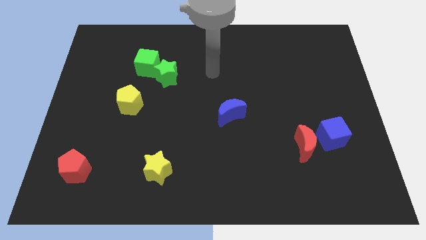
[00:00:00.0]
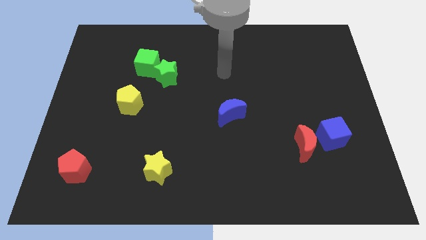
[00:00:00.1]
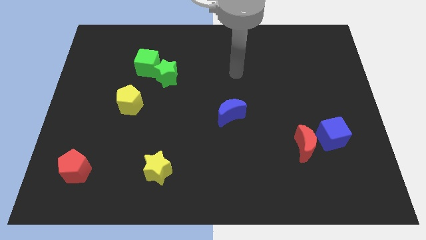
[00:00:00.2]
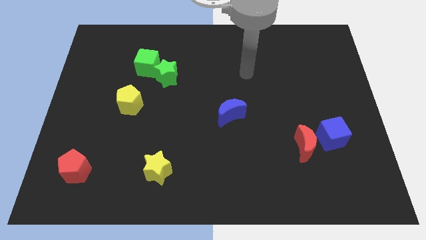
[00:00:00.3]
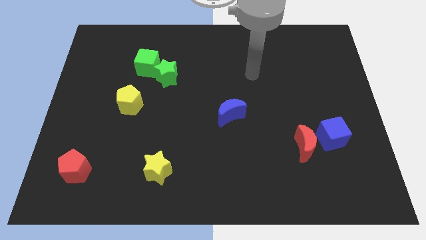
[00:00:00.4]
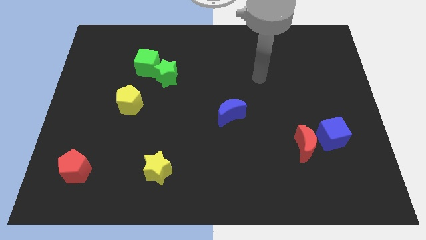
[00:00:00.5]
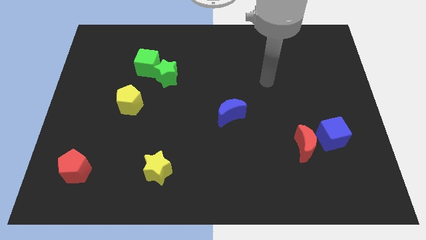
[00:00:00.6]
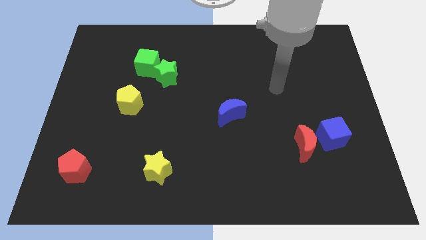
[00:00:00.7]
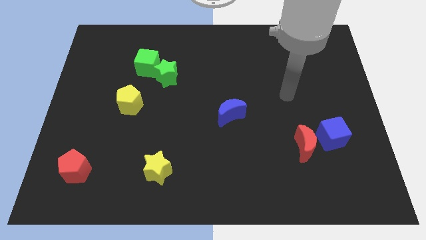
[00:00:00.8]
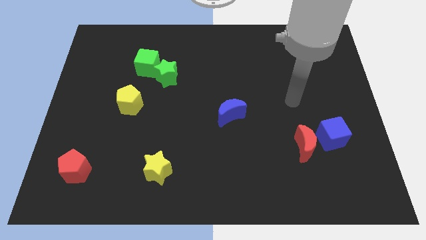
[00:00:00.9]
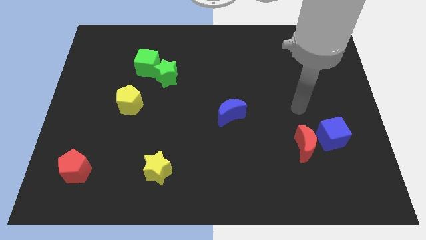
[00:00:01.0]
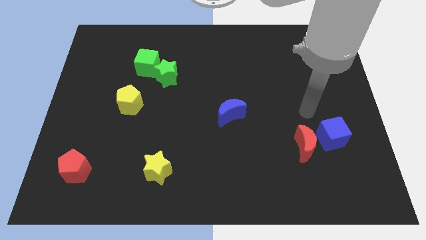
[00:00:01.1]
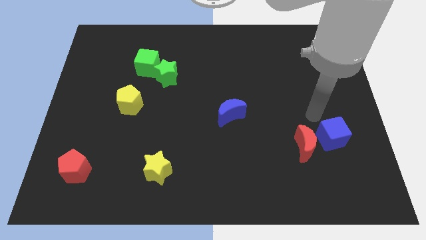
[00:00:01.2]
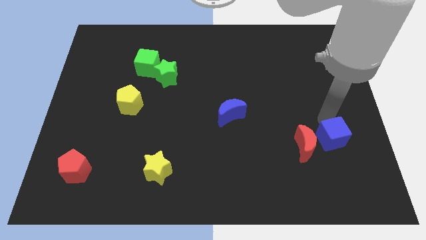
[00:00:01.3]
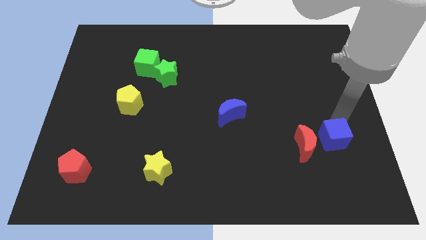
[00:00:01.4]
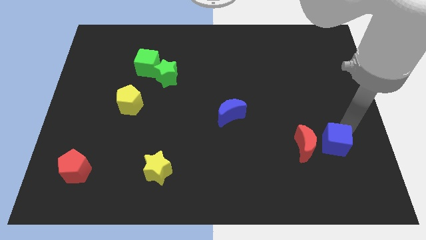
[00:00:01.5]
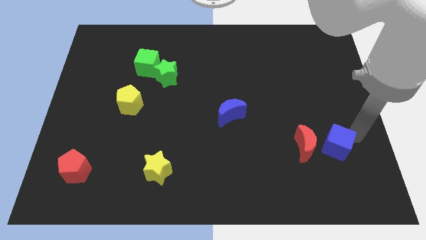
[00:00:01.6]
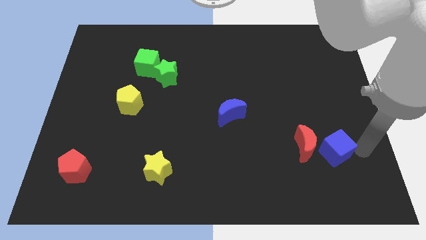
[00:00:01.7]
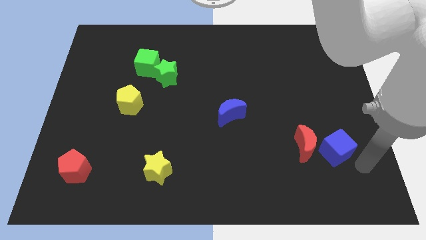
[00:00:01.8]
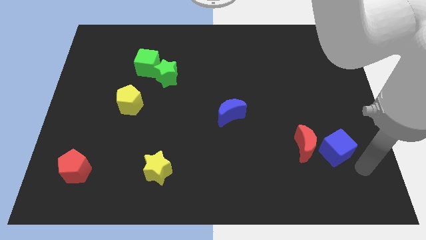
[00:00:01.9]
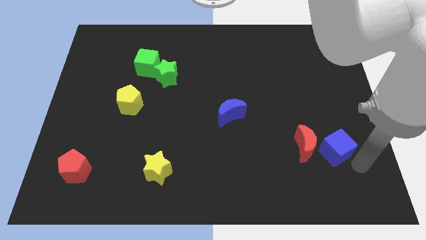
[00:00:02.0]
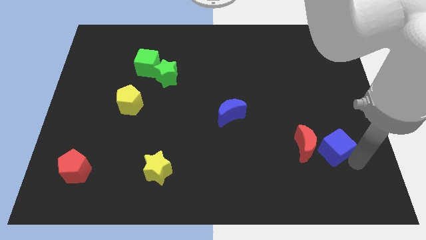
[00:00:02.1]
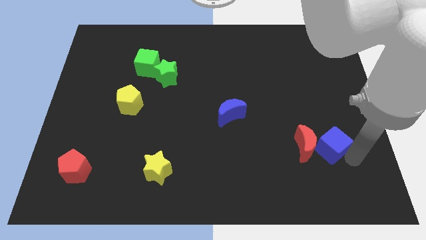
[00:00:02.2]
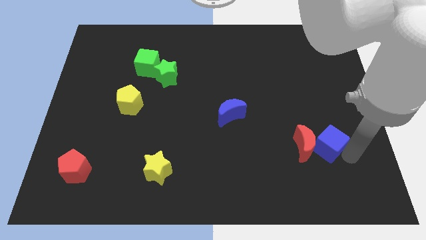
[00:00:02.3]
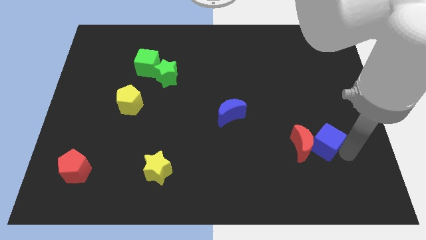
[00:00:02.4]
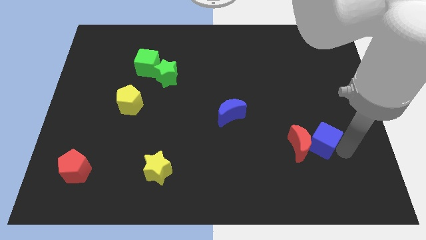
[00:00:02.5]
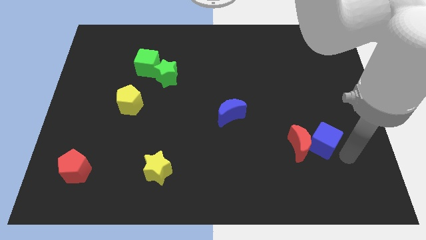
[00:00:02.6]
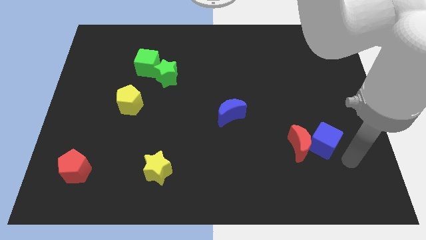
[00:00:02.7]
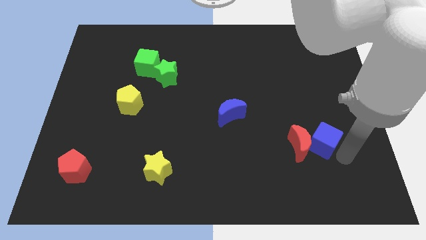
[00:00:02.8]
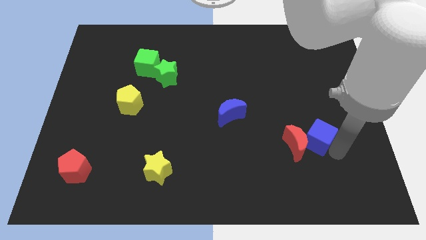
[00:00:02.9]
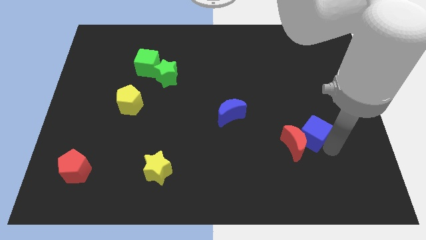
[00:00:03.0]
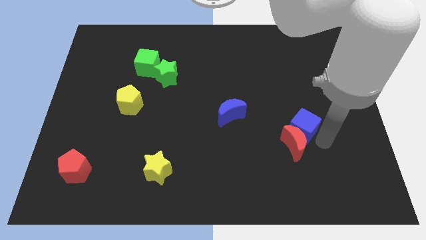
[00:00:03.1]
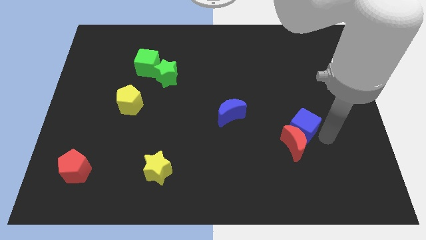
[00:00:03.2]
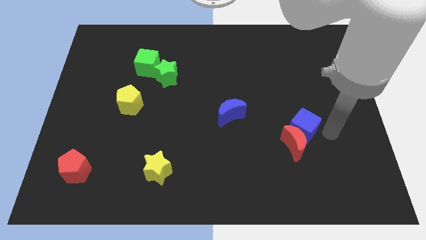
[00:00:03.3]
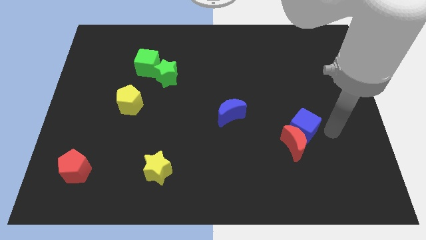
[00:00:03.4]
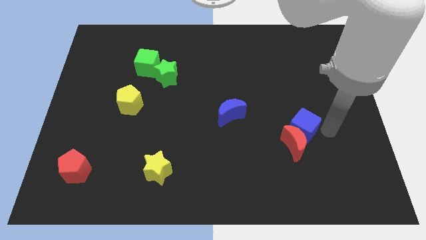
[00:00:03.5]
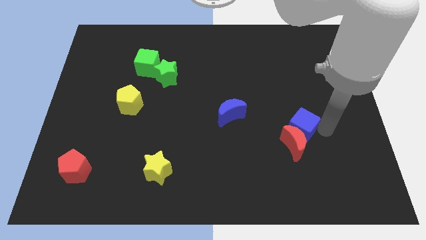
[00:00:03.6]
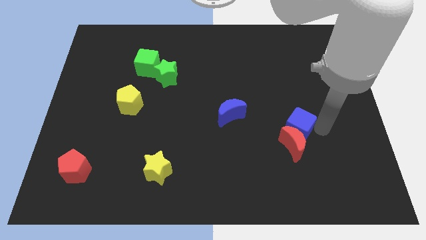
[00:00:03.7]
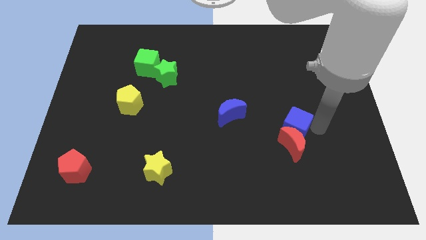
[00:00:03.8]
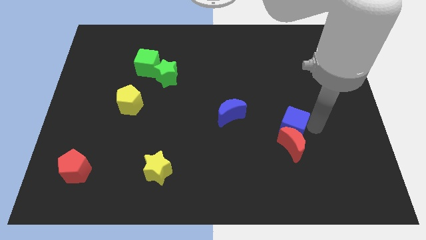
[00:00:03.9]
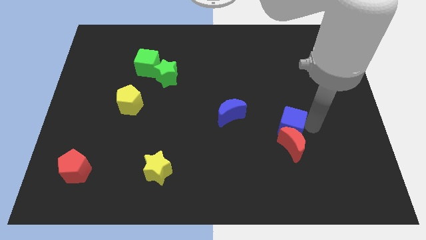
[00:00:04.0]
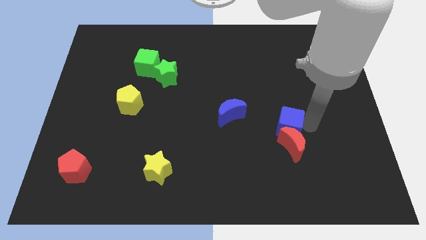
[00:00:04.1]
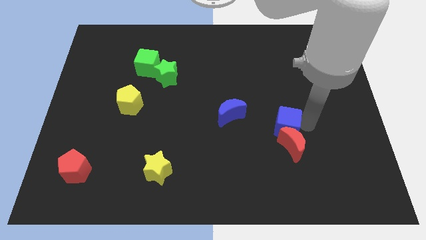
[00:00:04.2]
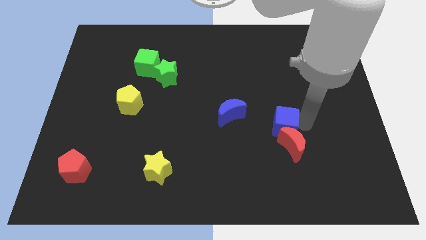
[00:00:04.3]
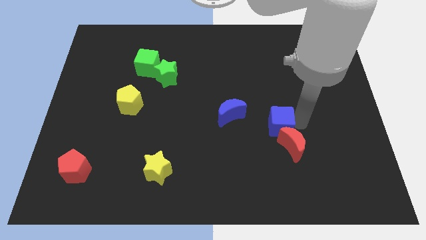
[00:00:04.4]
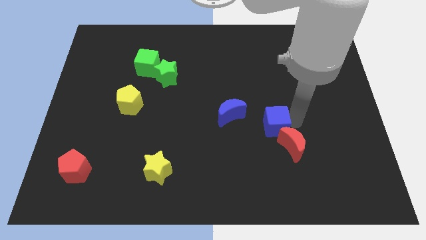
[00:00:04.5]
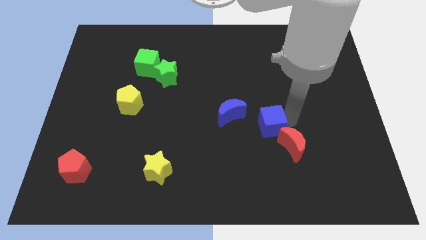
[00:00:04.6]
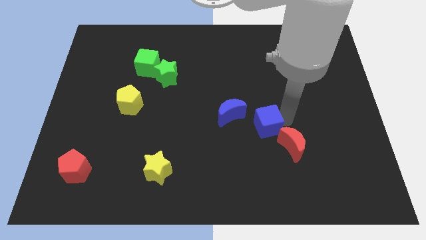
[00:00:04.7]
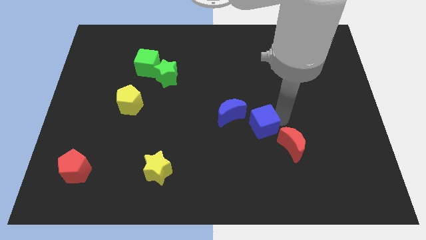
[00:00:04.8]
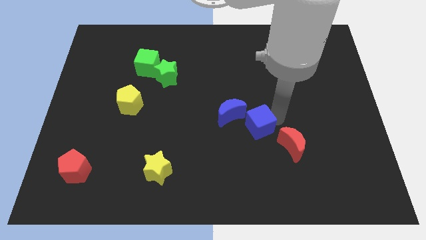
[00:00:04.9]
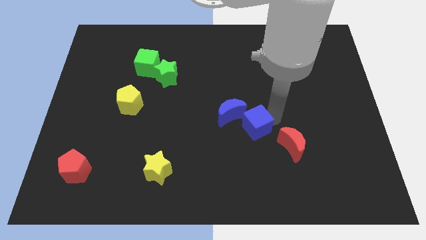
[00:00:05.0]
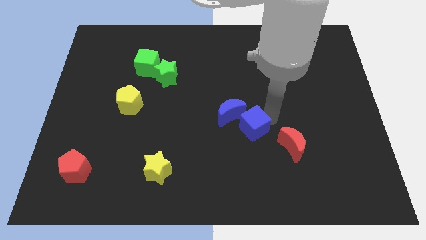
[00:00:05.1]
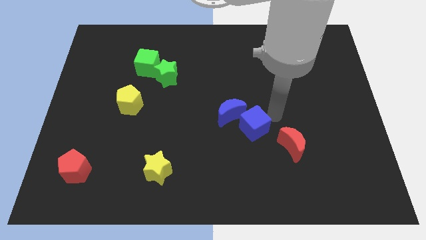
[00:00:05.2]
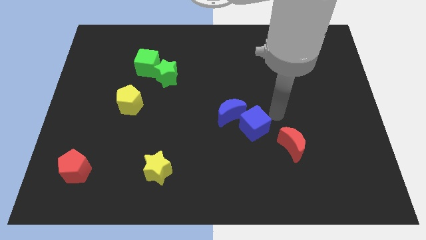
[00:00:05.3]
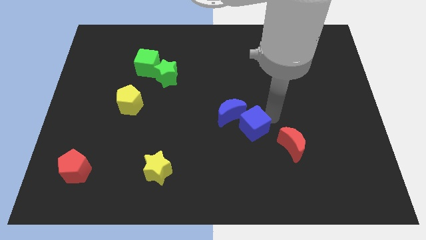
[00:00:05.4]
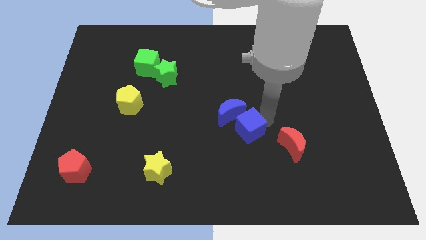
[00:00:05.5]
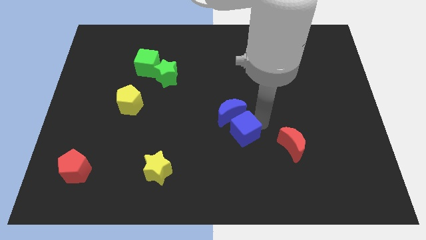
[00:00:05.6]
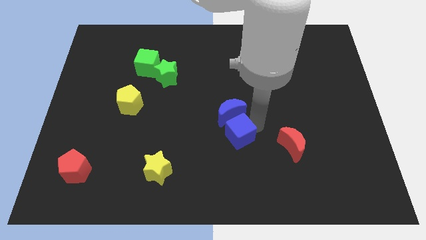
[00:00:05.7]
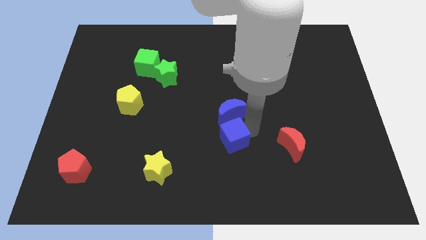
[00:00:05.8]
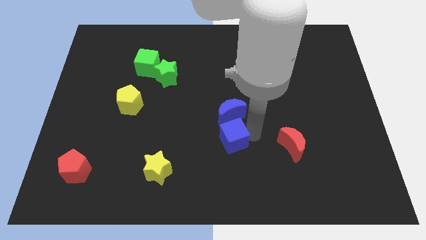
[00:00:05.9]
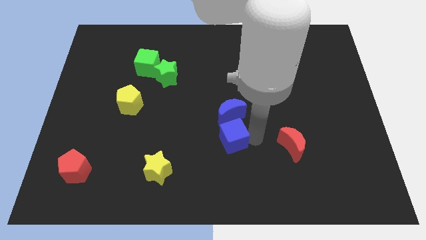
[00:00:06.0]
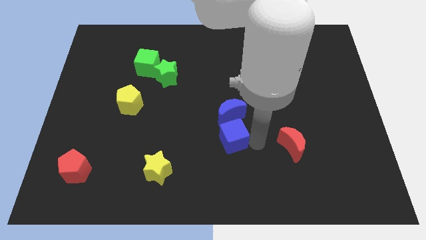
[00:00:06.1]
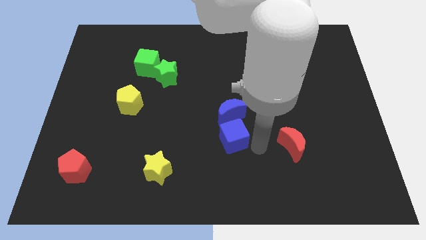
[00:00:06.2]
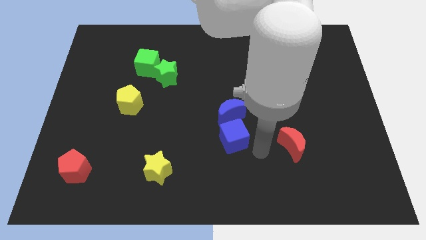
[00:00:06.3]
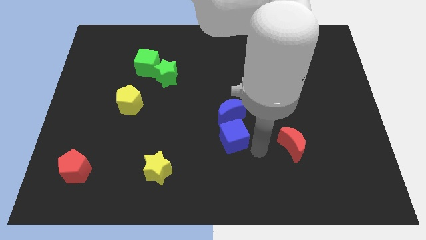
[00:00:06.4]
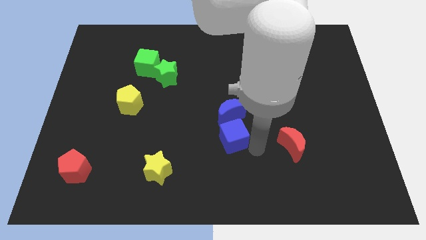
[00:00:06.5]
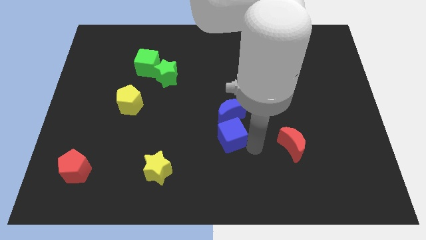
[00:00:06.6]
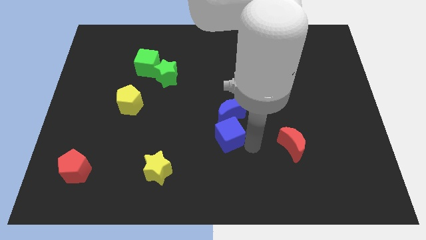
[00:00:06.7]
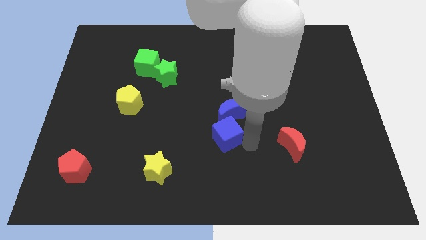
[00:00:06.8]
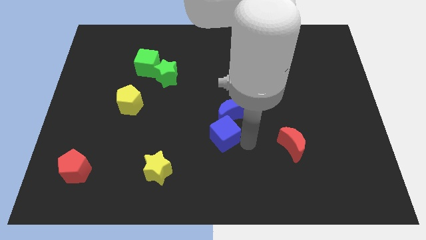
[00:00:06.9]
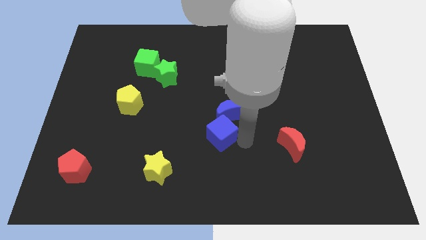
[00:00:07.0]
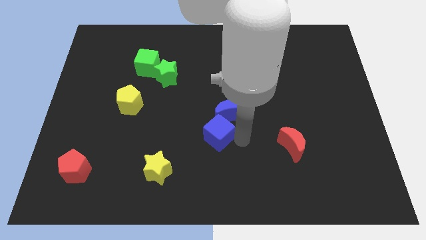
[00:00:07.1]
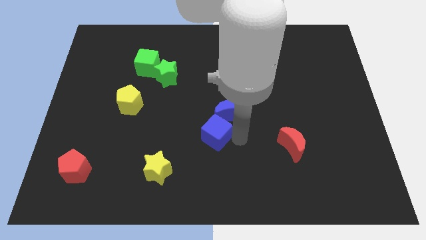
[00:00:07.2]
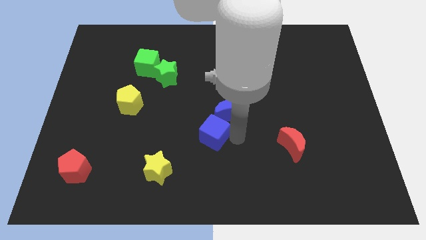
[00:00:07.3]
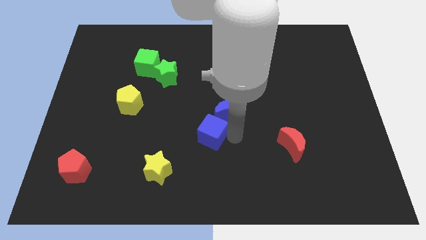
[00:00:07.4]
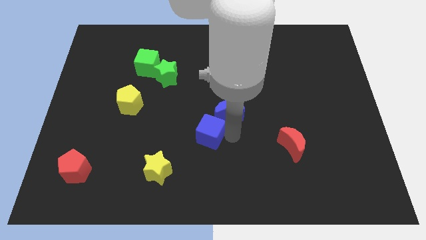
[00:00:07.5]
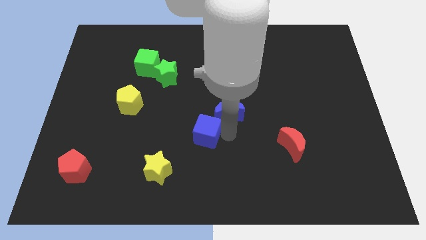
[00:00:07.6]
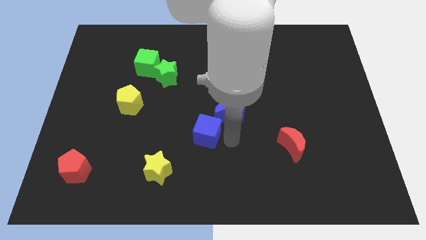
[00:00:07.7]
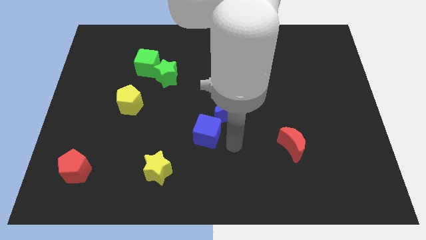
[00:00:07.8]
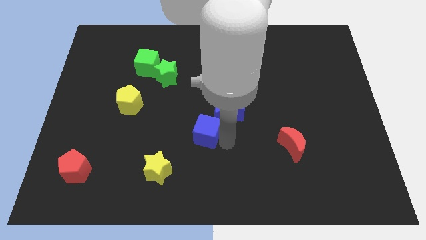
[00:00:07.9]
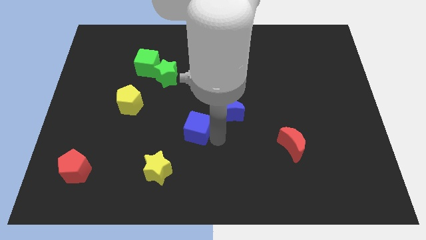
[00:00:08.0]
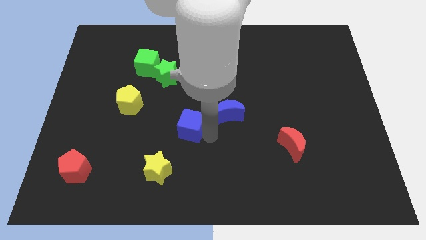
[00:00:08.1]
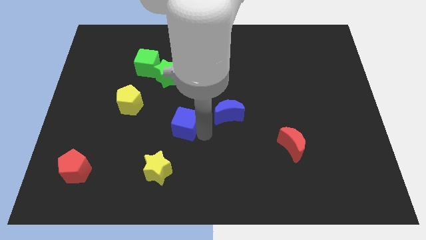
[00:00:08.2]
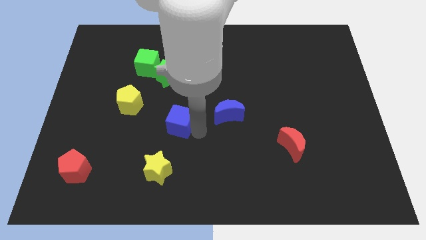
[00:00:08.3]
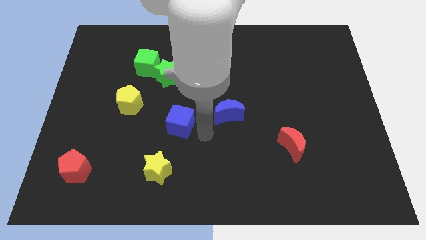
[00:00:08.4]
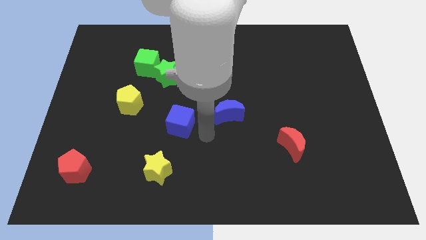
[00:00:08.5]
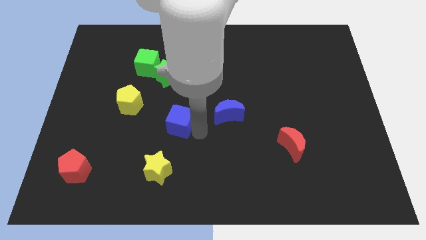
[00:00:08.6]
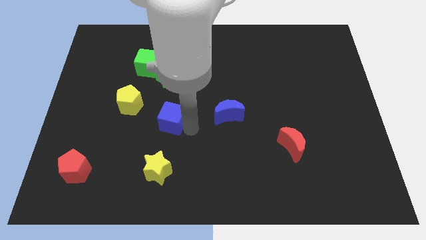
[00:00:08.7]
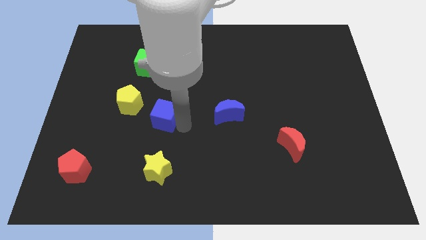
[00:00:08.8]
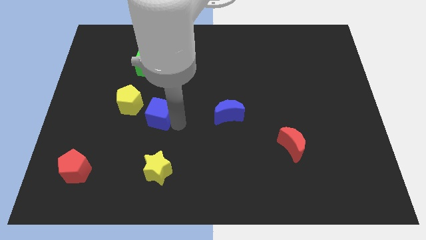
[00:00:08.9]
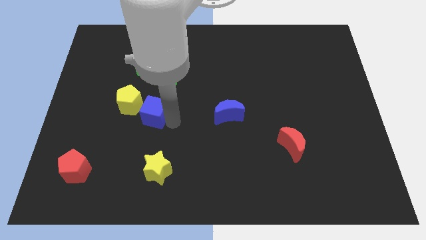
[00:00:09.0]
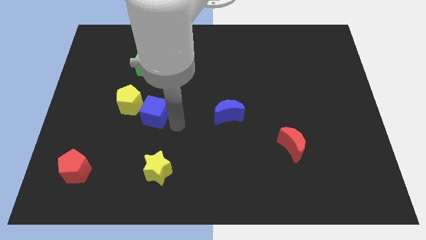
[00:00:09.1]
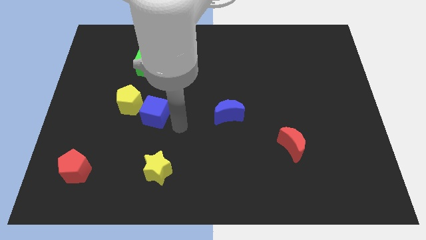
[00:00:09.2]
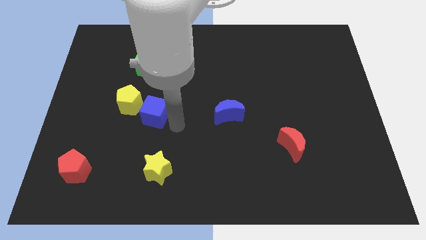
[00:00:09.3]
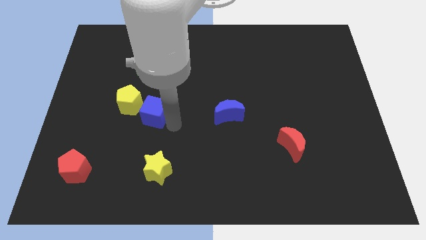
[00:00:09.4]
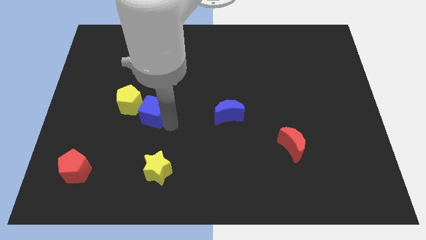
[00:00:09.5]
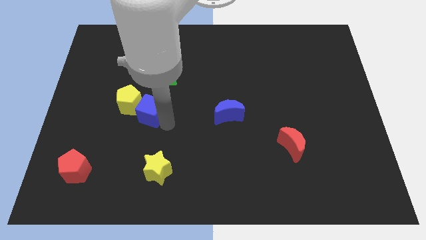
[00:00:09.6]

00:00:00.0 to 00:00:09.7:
slide the blue cube to the yellow pentagon
